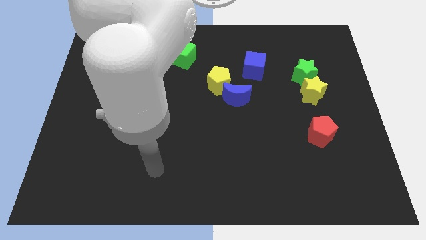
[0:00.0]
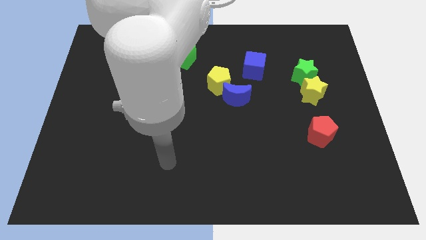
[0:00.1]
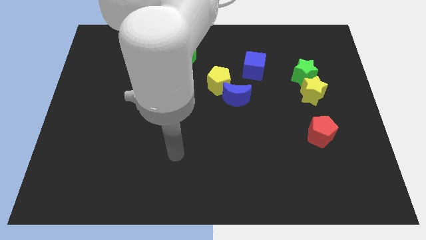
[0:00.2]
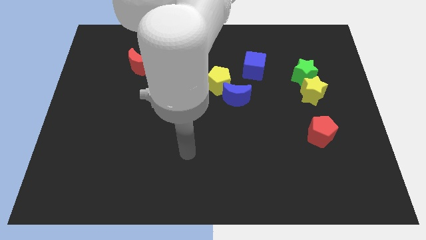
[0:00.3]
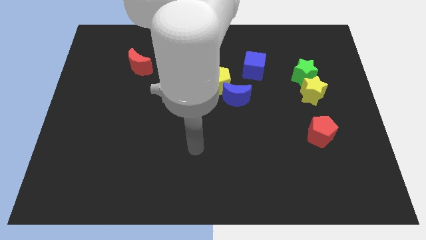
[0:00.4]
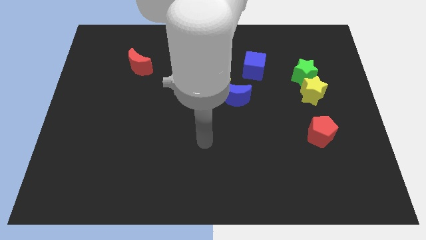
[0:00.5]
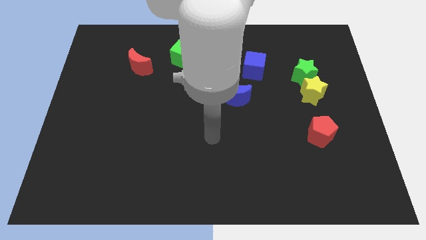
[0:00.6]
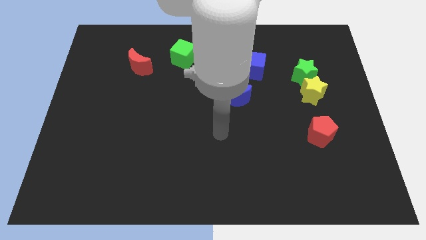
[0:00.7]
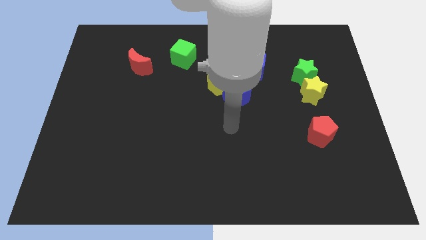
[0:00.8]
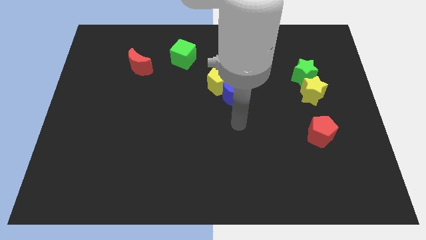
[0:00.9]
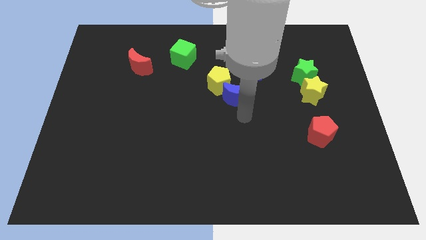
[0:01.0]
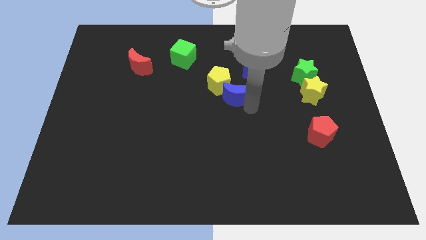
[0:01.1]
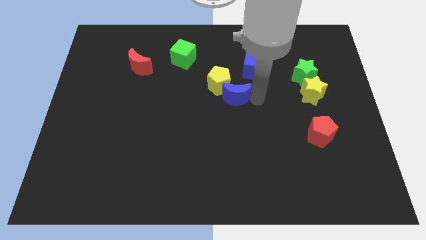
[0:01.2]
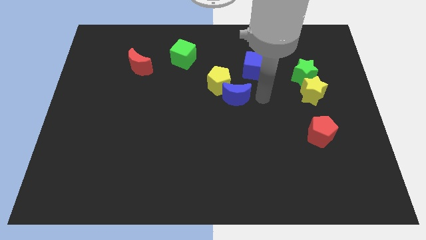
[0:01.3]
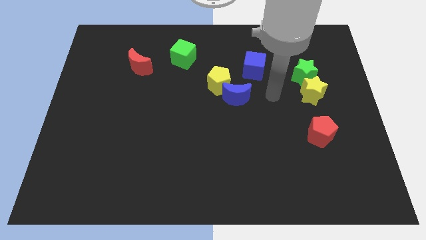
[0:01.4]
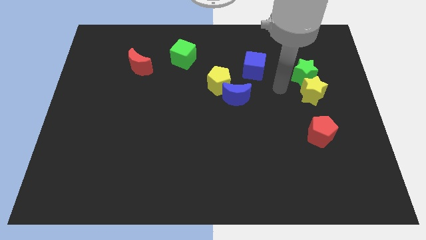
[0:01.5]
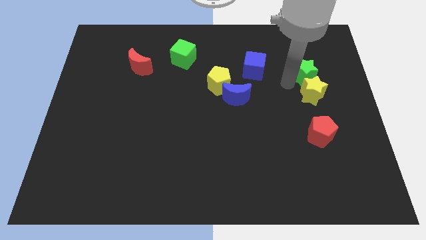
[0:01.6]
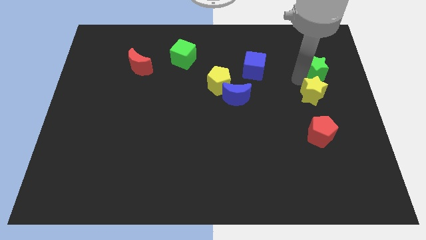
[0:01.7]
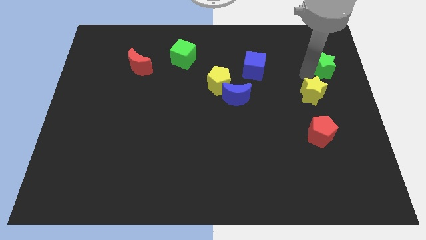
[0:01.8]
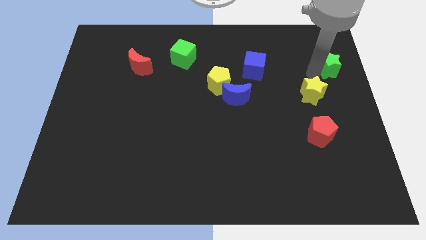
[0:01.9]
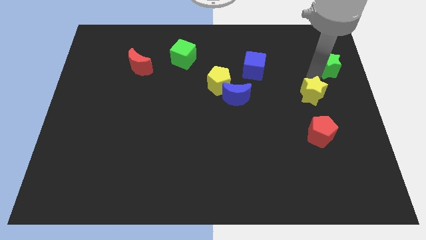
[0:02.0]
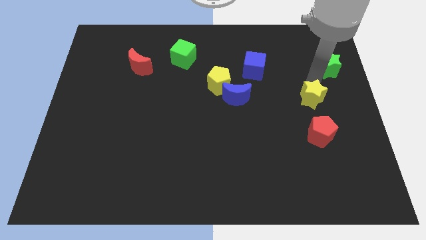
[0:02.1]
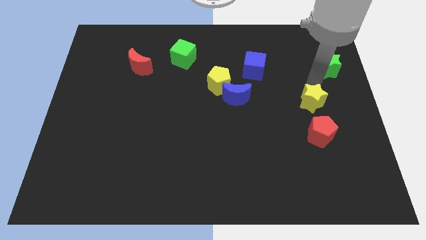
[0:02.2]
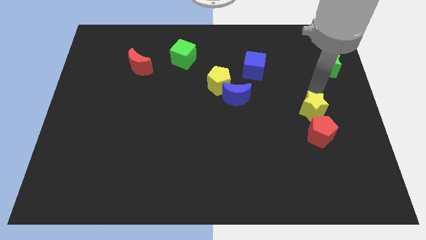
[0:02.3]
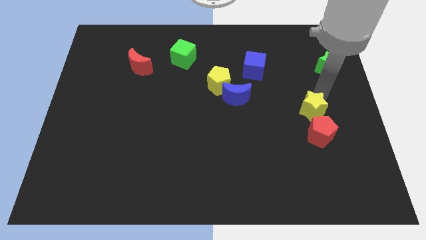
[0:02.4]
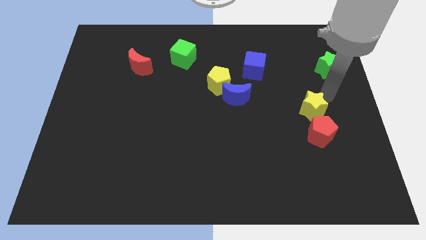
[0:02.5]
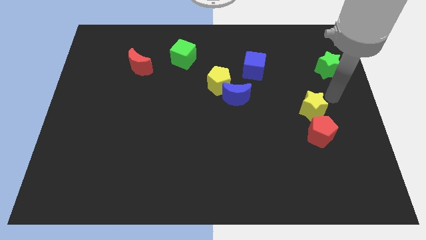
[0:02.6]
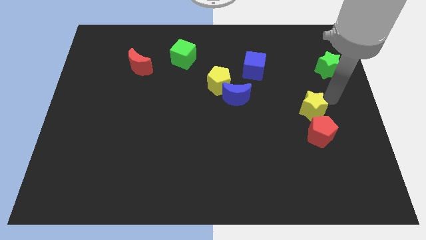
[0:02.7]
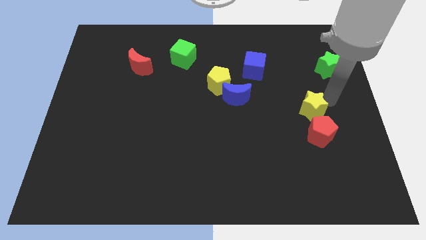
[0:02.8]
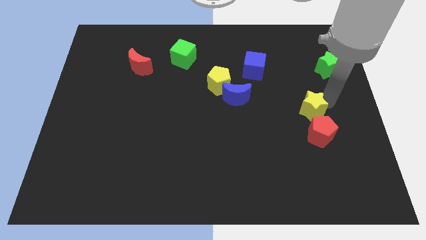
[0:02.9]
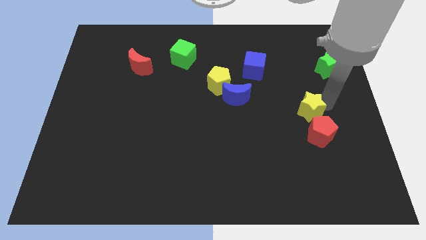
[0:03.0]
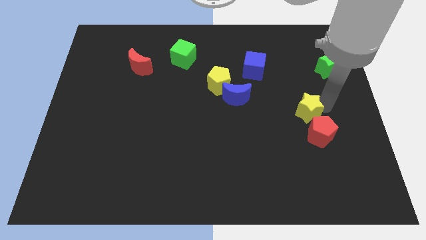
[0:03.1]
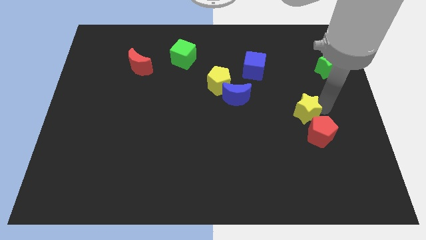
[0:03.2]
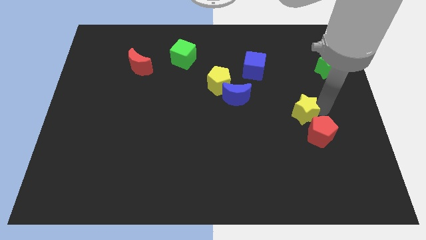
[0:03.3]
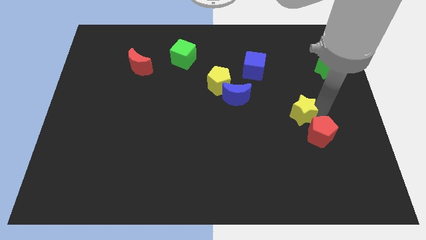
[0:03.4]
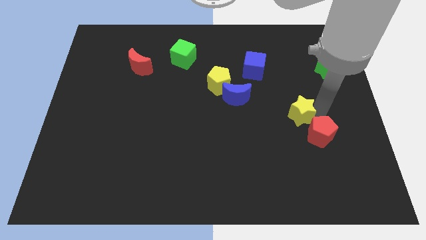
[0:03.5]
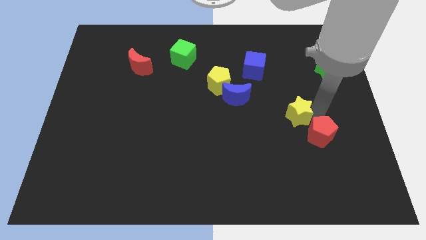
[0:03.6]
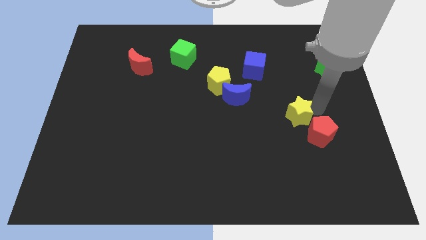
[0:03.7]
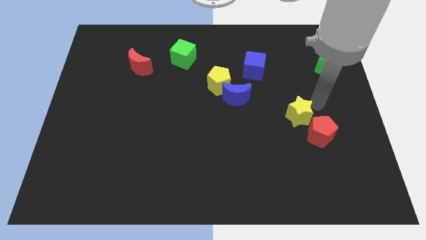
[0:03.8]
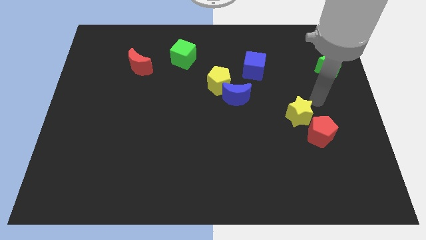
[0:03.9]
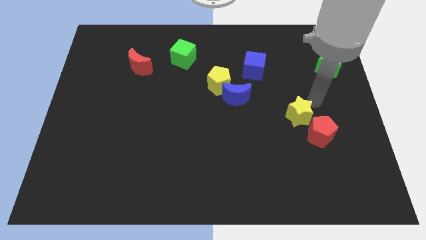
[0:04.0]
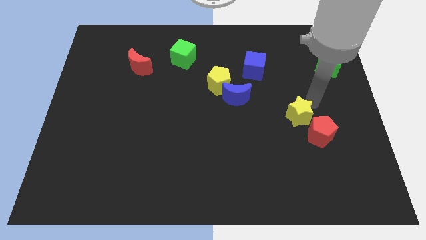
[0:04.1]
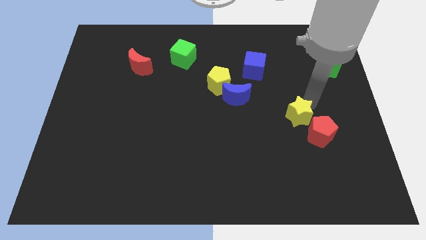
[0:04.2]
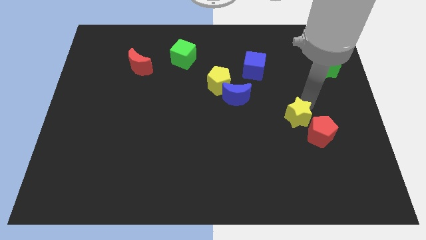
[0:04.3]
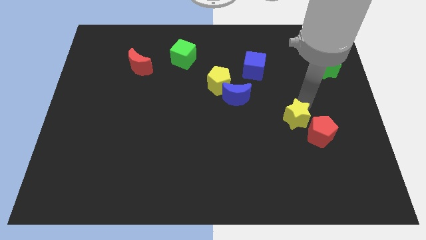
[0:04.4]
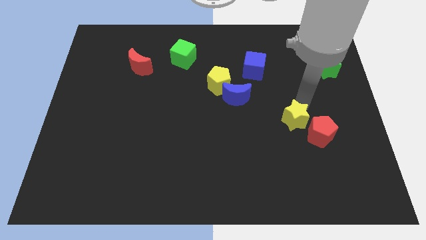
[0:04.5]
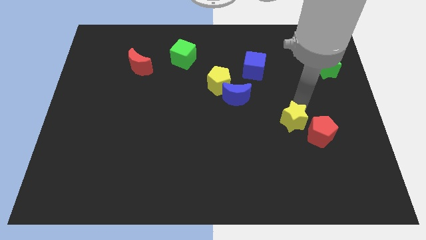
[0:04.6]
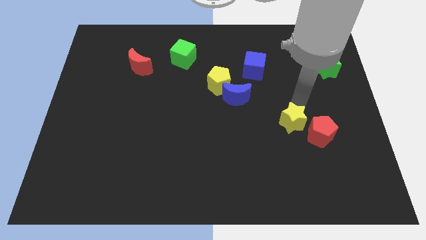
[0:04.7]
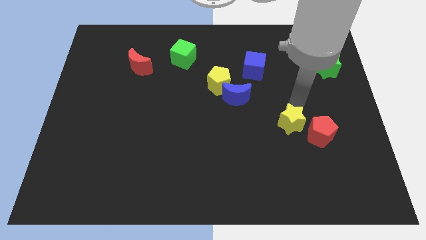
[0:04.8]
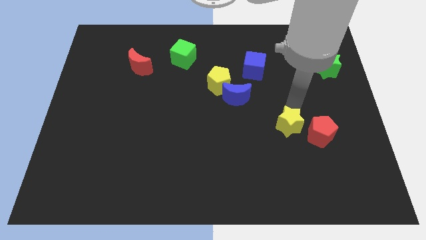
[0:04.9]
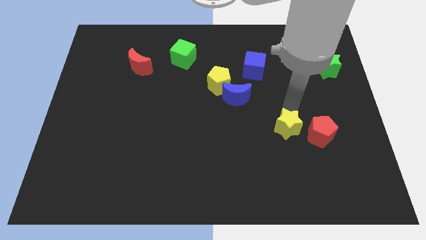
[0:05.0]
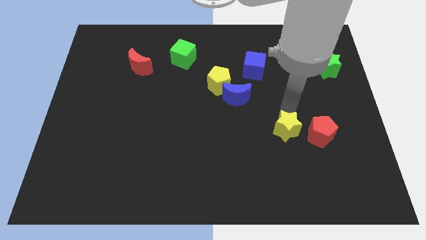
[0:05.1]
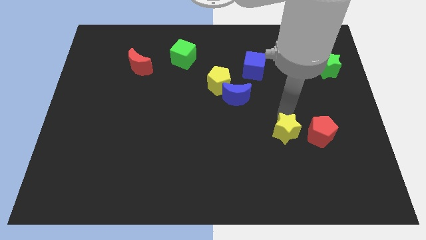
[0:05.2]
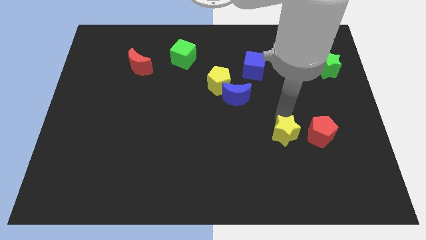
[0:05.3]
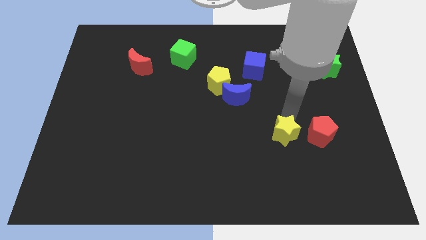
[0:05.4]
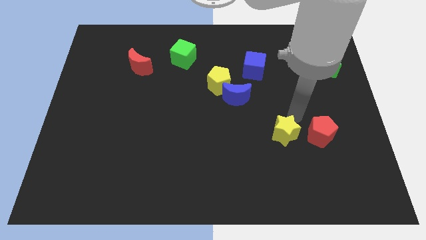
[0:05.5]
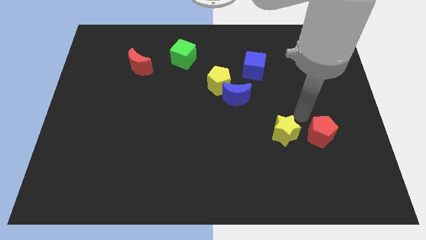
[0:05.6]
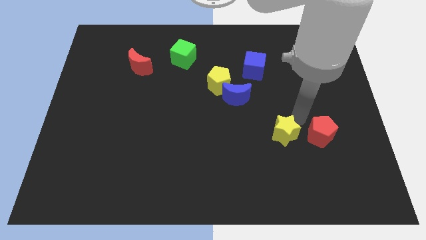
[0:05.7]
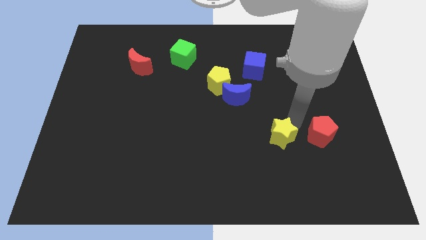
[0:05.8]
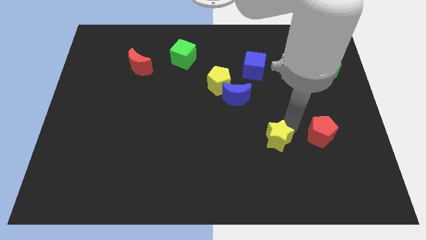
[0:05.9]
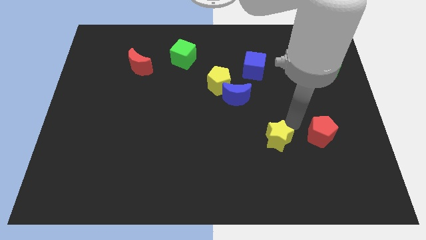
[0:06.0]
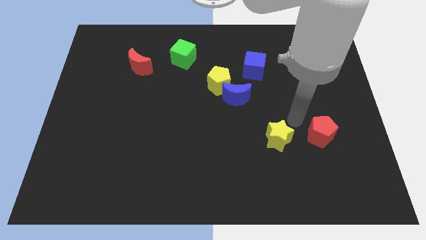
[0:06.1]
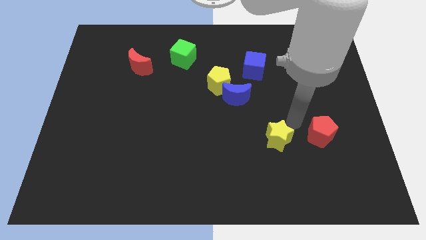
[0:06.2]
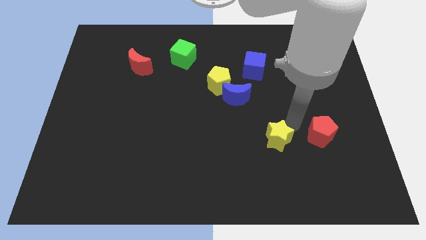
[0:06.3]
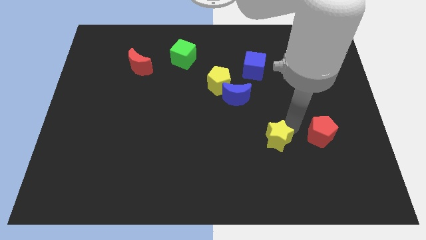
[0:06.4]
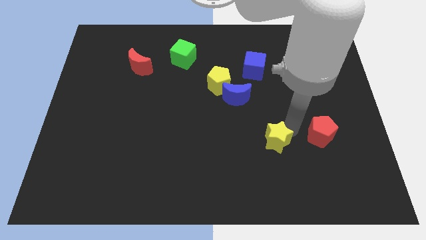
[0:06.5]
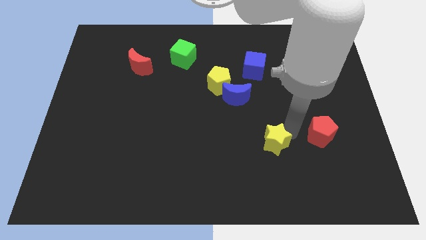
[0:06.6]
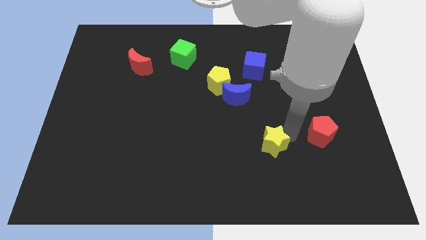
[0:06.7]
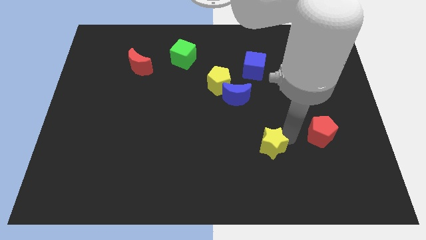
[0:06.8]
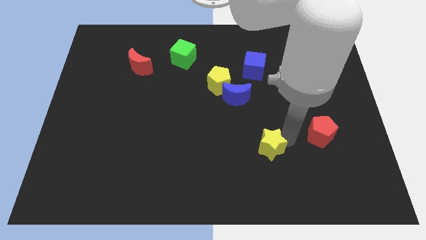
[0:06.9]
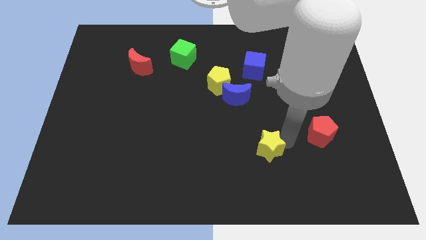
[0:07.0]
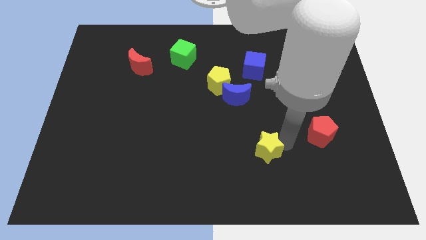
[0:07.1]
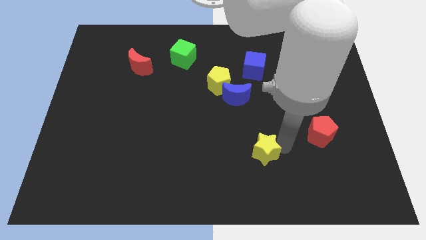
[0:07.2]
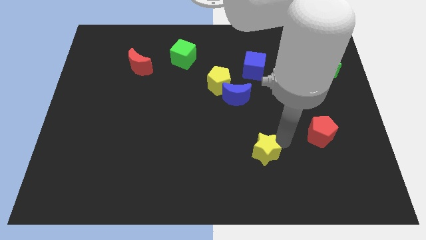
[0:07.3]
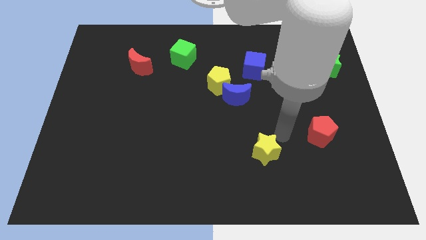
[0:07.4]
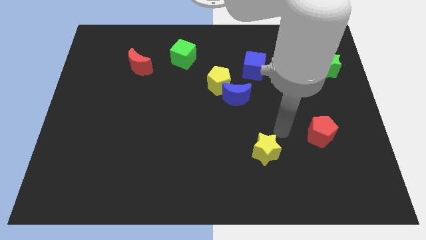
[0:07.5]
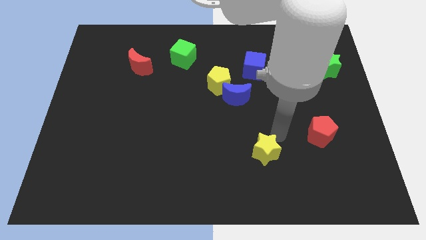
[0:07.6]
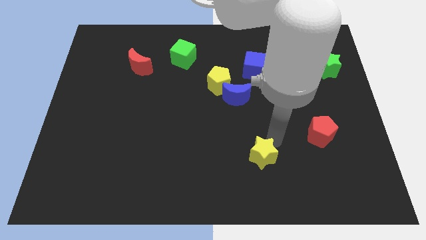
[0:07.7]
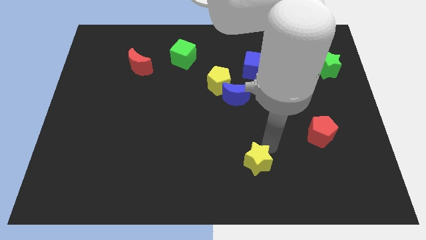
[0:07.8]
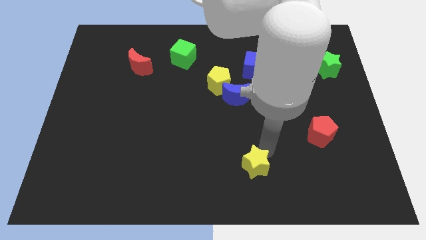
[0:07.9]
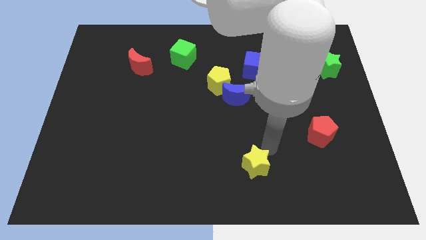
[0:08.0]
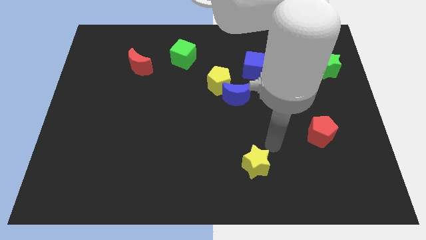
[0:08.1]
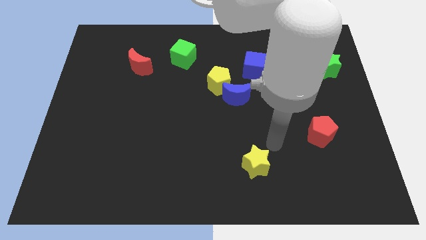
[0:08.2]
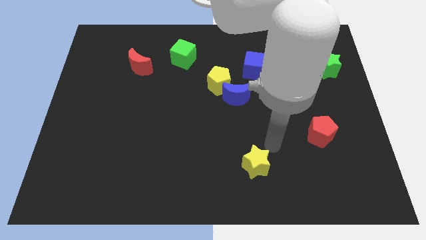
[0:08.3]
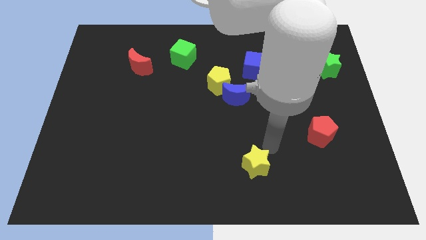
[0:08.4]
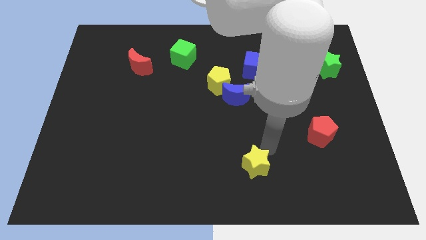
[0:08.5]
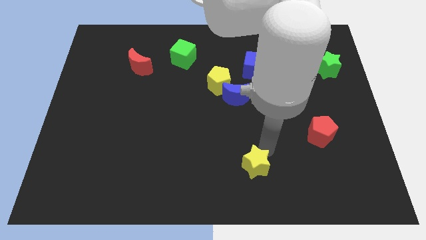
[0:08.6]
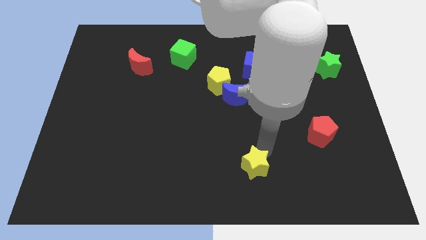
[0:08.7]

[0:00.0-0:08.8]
put the yellow star to the bottom side
